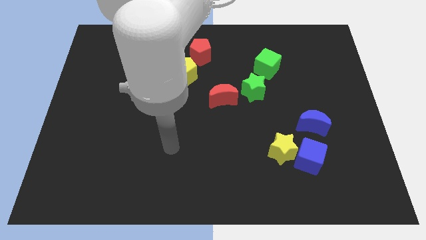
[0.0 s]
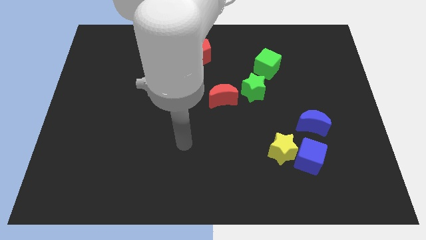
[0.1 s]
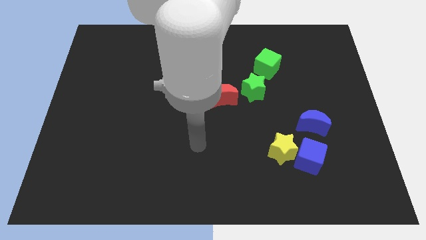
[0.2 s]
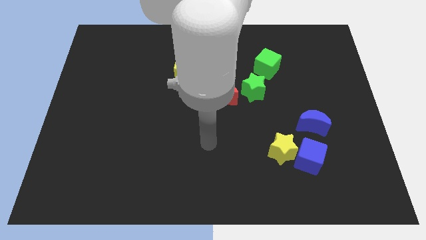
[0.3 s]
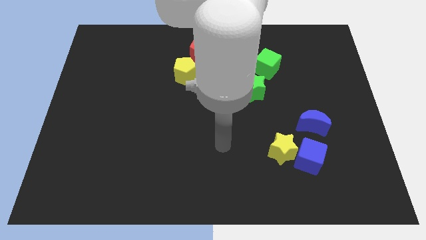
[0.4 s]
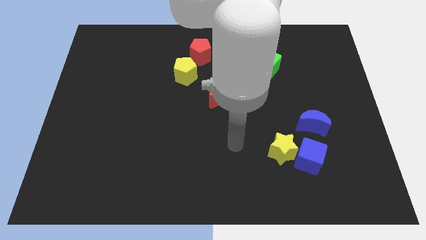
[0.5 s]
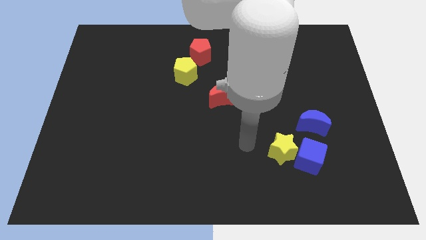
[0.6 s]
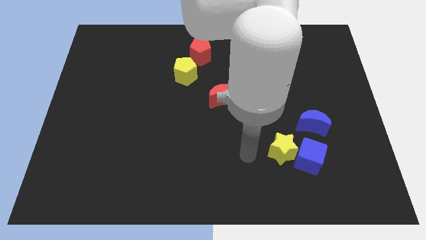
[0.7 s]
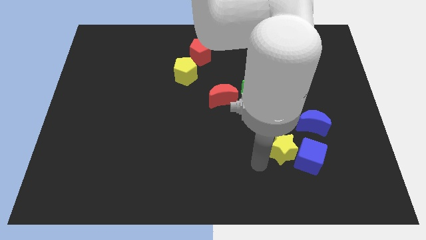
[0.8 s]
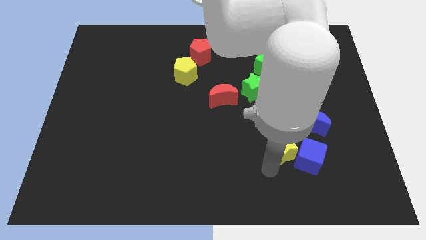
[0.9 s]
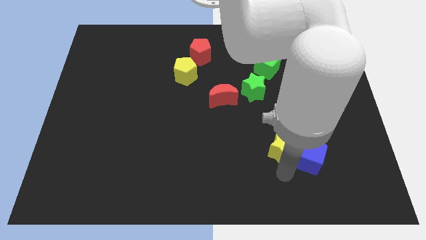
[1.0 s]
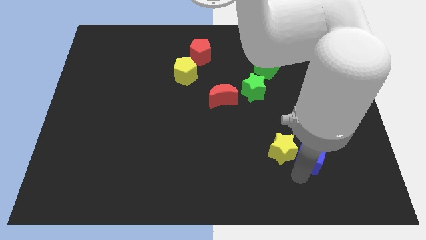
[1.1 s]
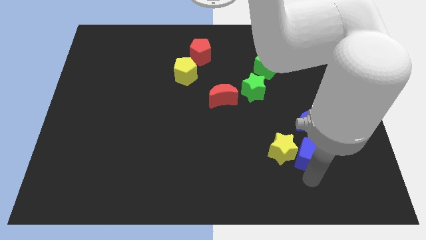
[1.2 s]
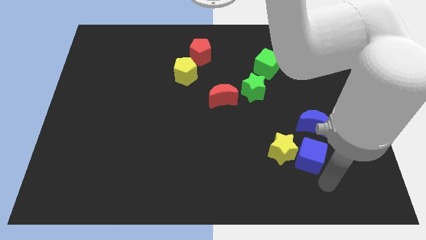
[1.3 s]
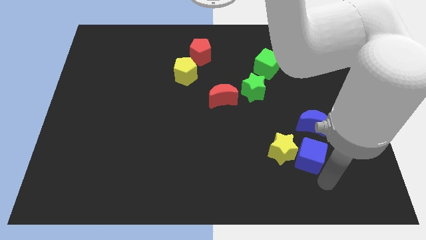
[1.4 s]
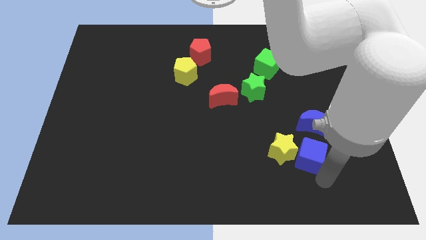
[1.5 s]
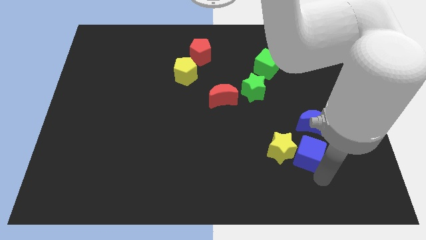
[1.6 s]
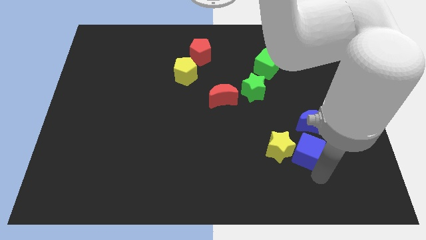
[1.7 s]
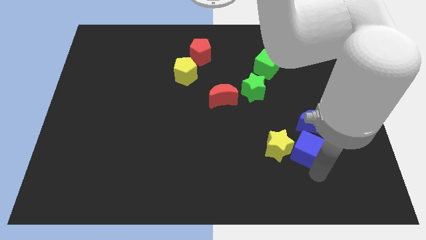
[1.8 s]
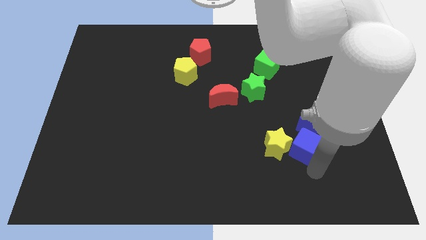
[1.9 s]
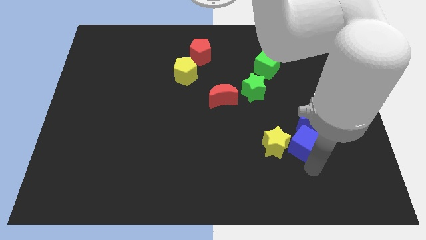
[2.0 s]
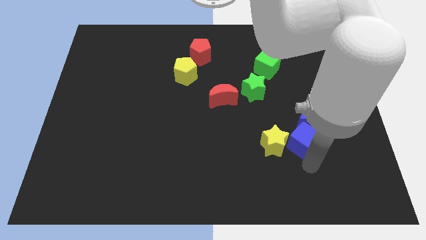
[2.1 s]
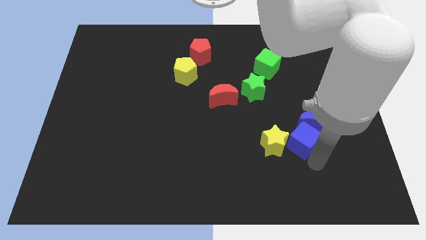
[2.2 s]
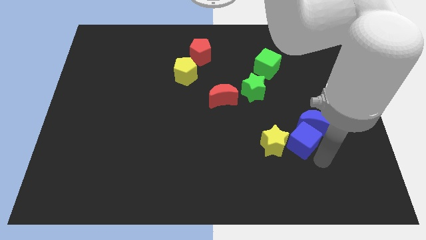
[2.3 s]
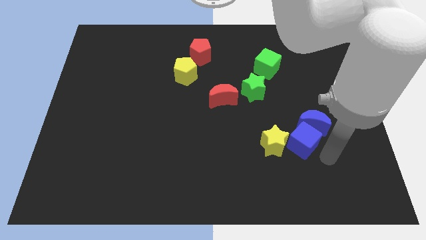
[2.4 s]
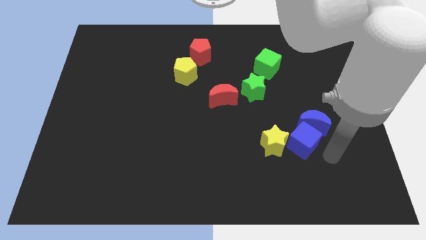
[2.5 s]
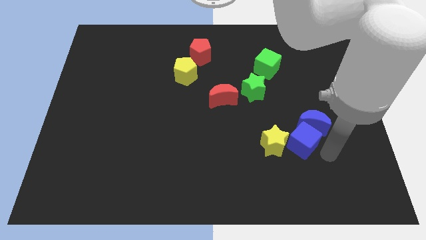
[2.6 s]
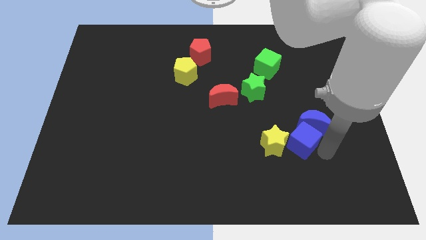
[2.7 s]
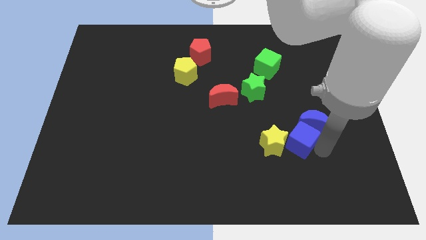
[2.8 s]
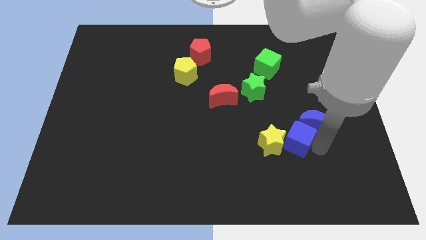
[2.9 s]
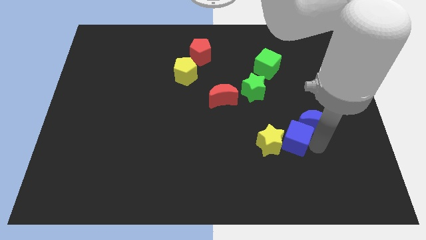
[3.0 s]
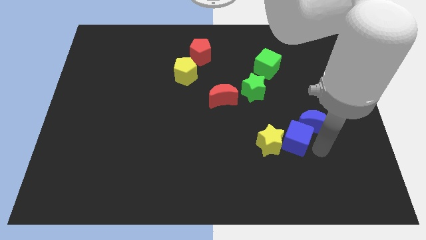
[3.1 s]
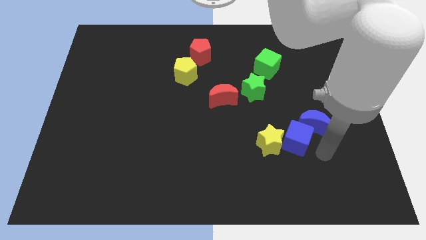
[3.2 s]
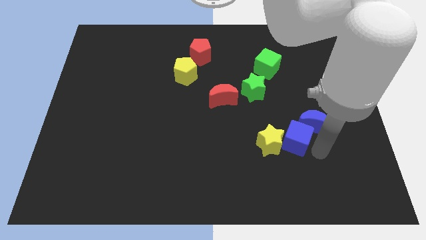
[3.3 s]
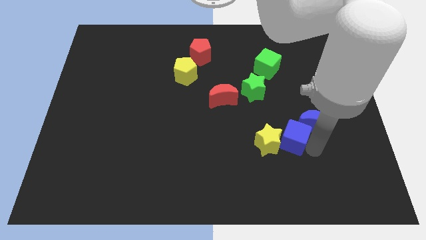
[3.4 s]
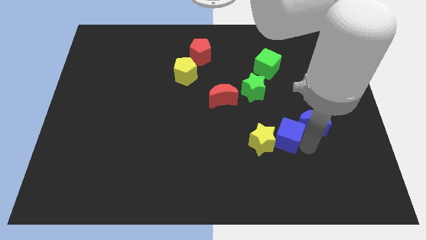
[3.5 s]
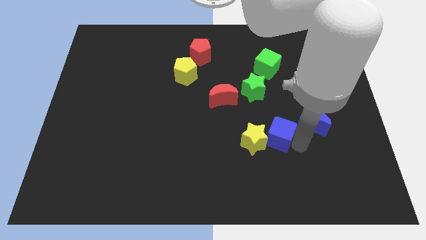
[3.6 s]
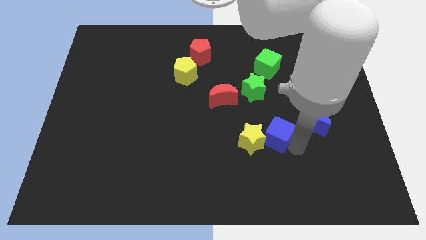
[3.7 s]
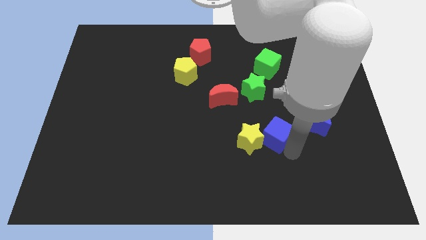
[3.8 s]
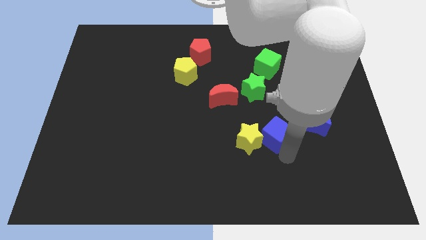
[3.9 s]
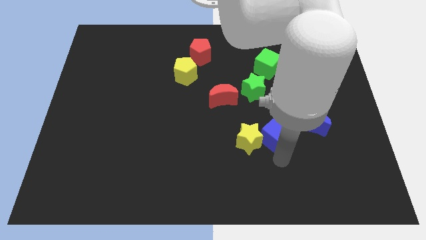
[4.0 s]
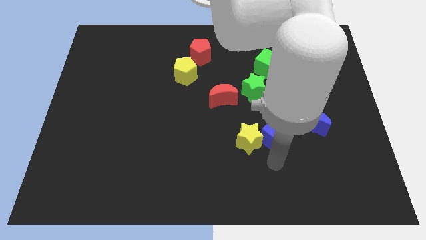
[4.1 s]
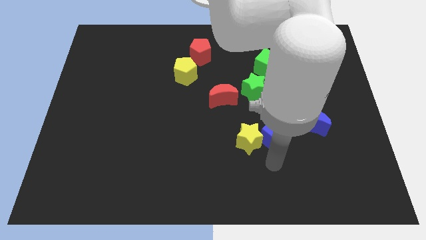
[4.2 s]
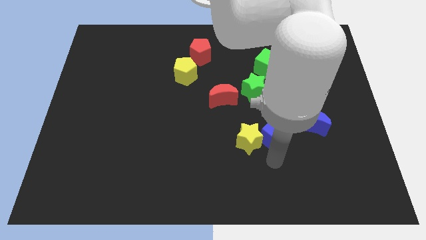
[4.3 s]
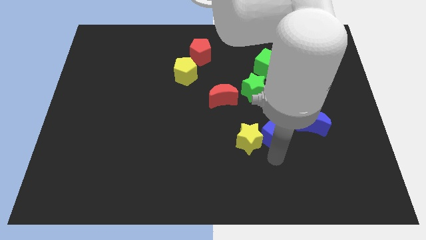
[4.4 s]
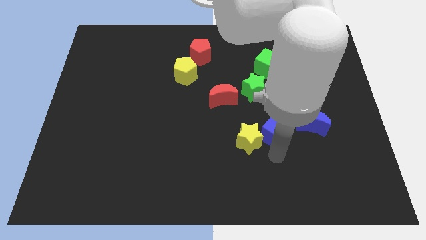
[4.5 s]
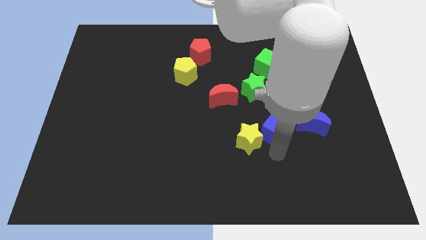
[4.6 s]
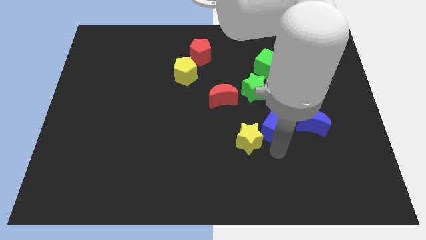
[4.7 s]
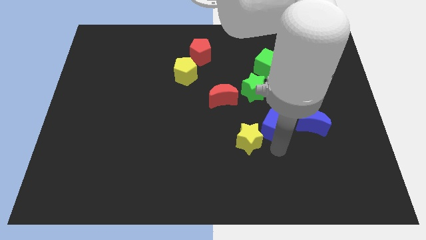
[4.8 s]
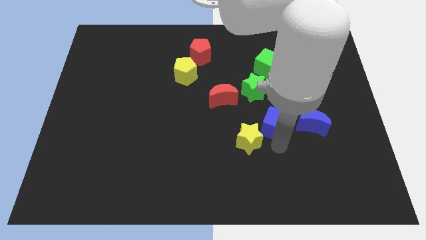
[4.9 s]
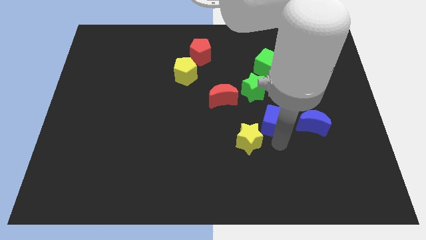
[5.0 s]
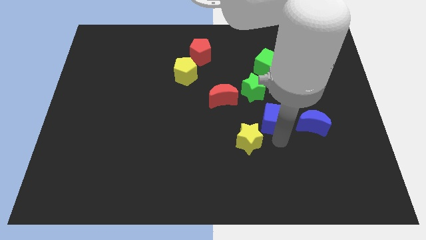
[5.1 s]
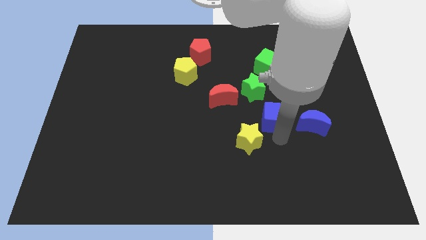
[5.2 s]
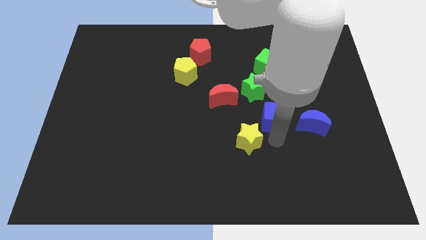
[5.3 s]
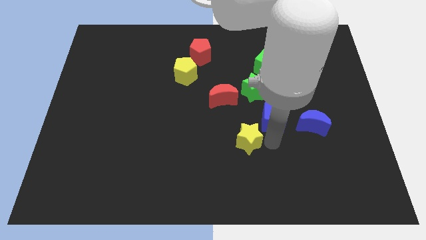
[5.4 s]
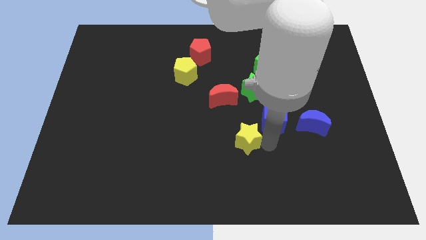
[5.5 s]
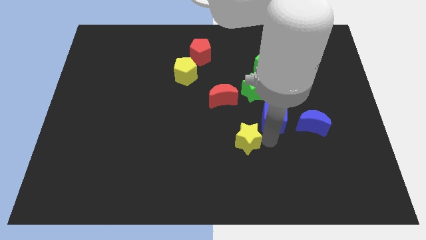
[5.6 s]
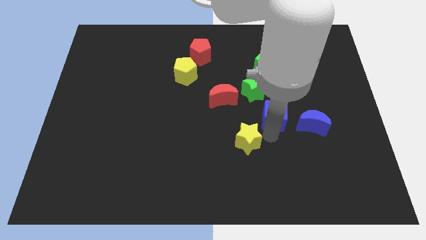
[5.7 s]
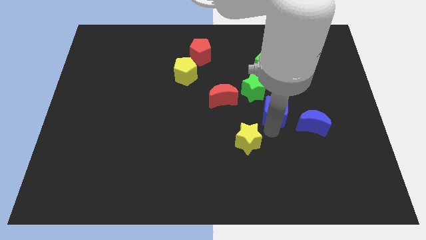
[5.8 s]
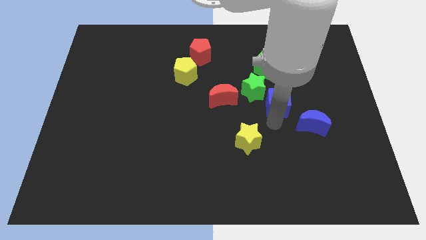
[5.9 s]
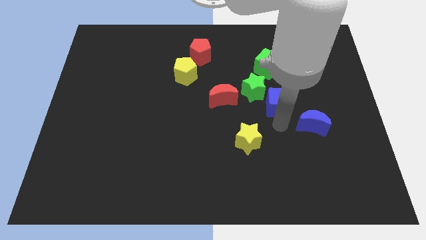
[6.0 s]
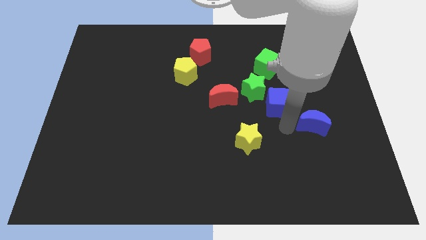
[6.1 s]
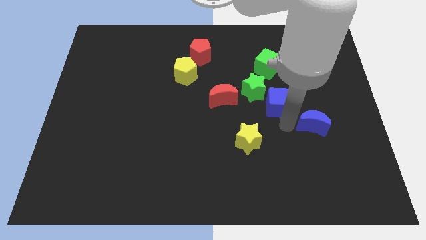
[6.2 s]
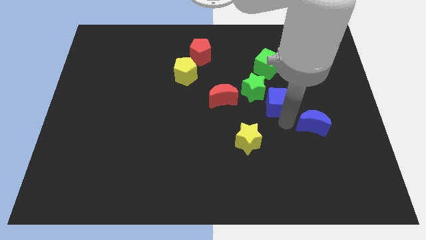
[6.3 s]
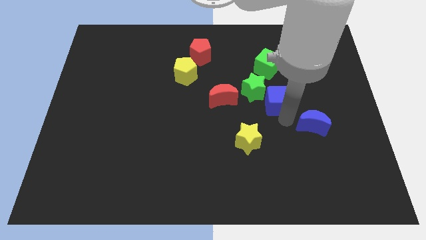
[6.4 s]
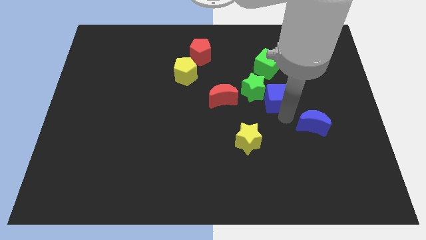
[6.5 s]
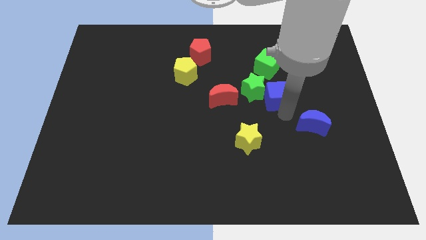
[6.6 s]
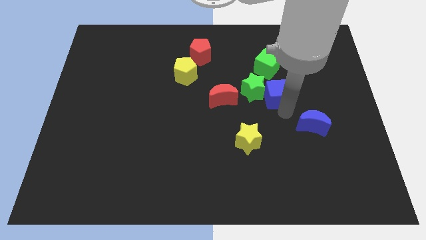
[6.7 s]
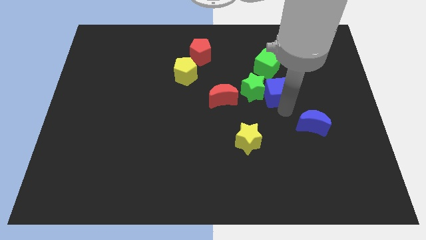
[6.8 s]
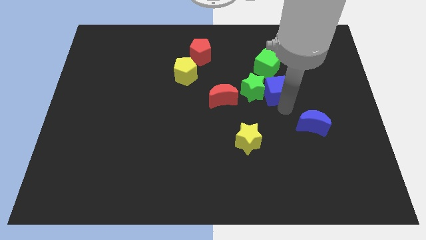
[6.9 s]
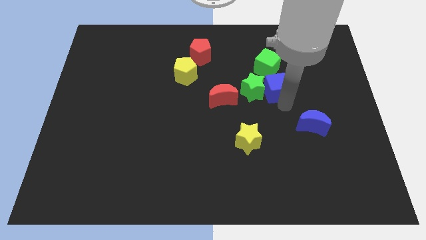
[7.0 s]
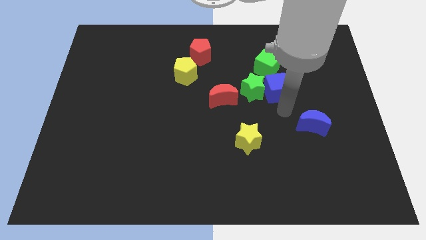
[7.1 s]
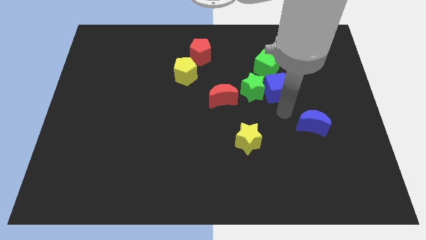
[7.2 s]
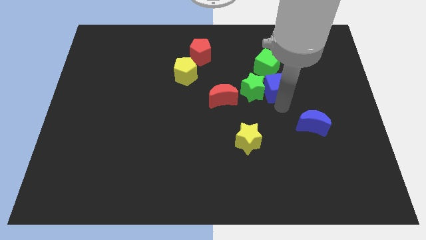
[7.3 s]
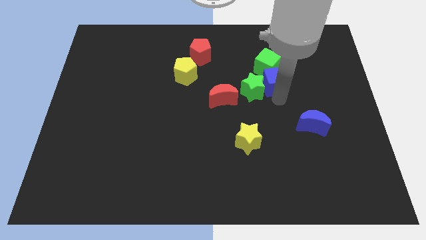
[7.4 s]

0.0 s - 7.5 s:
push the blue cube towards the green cube
